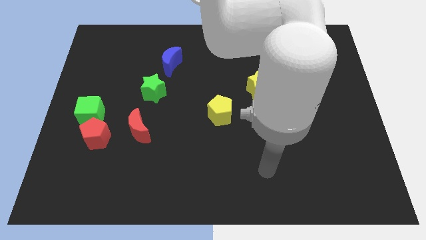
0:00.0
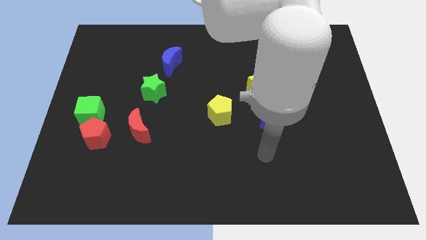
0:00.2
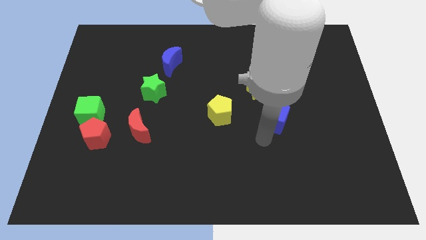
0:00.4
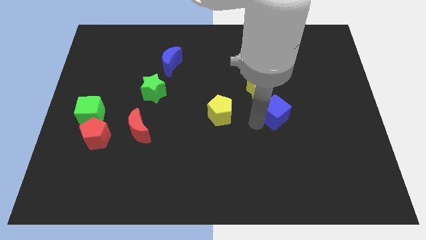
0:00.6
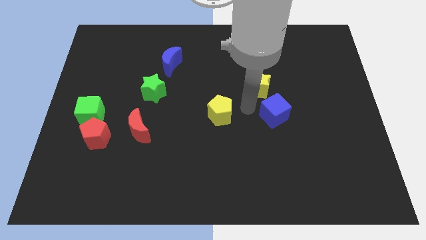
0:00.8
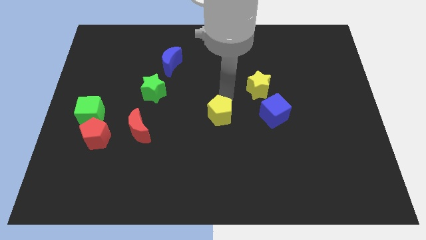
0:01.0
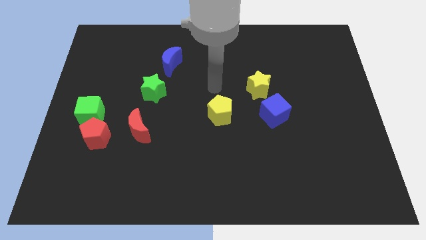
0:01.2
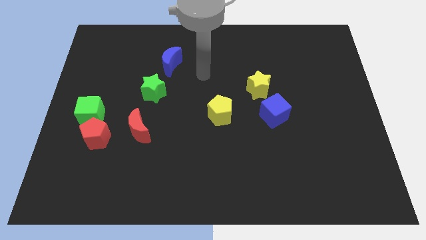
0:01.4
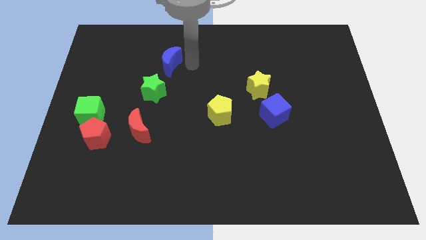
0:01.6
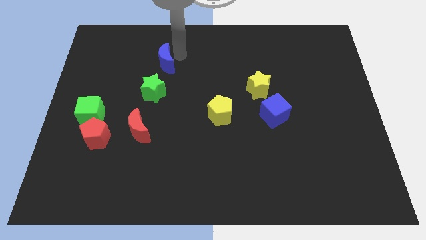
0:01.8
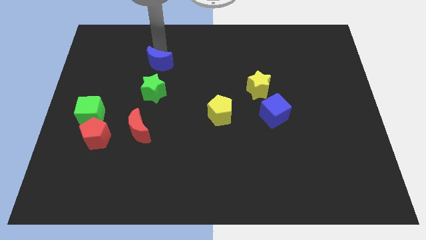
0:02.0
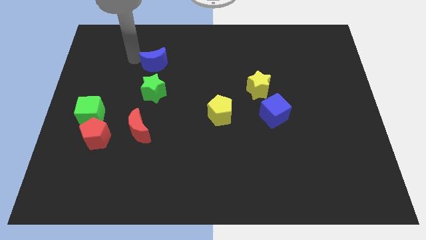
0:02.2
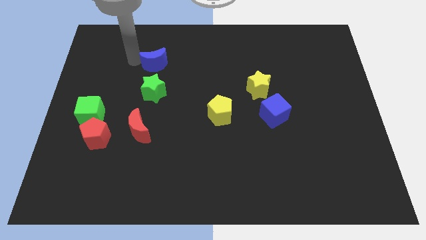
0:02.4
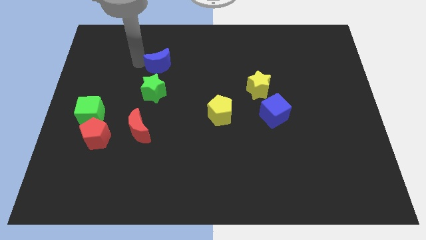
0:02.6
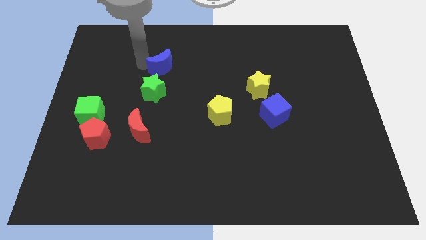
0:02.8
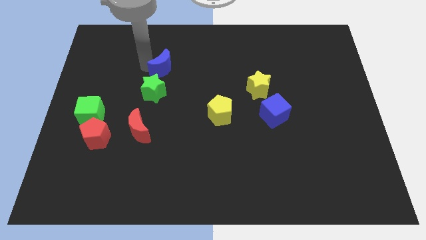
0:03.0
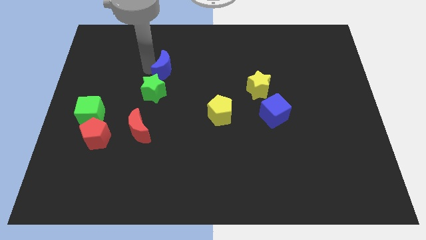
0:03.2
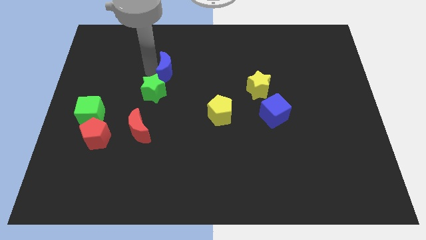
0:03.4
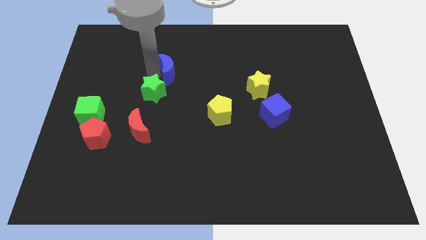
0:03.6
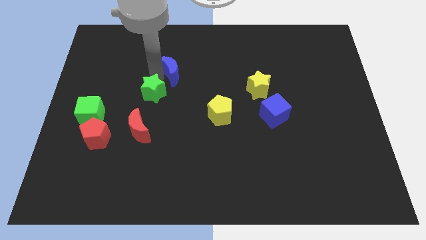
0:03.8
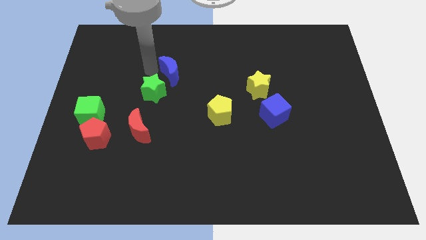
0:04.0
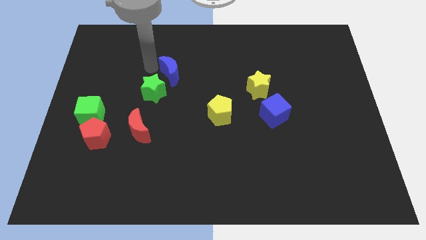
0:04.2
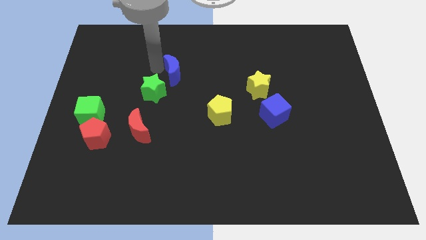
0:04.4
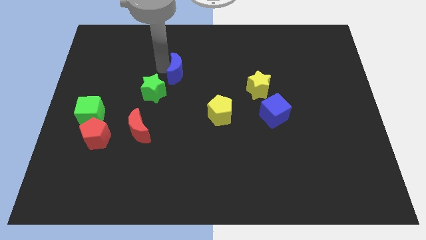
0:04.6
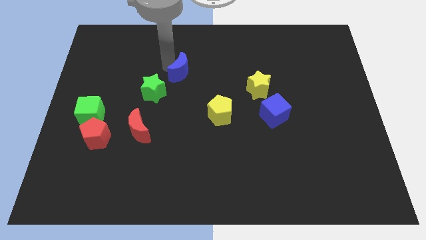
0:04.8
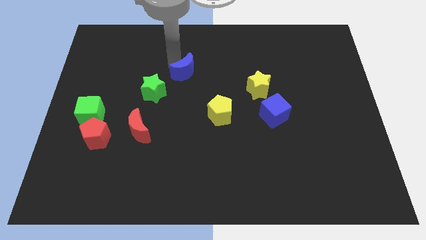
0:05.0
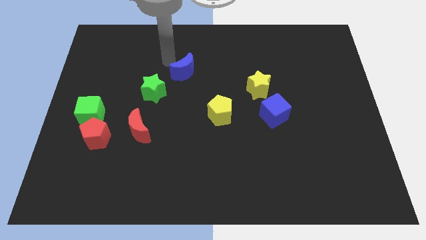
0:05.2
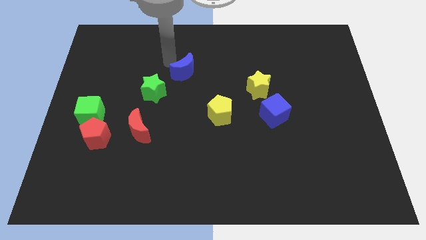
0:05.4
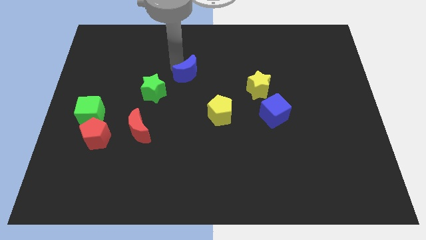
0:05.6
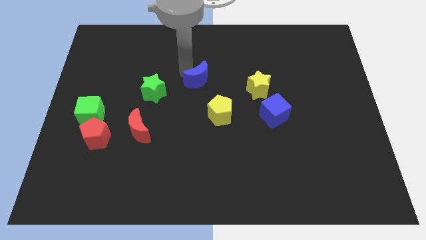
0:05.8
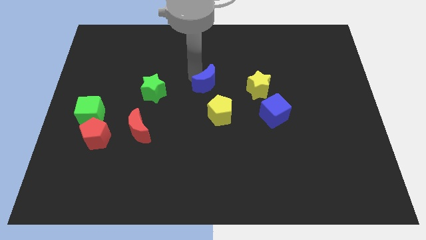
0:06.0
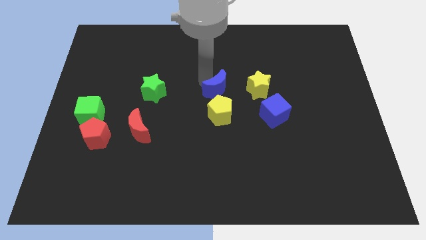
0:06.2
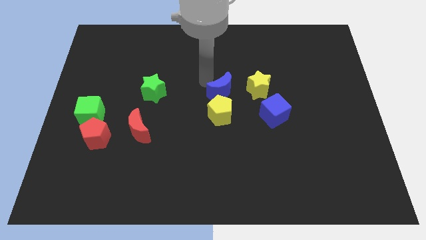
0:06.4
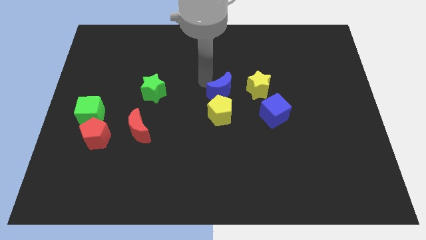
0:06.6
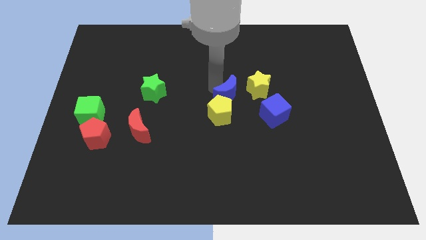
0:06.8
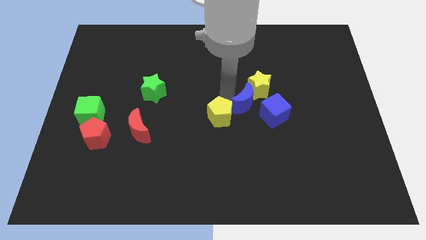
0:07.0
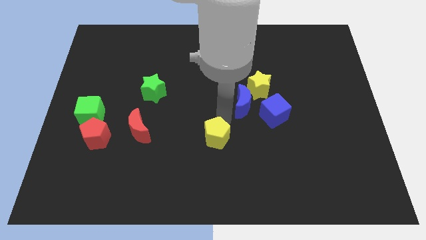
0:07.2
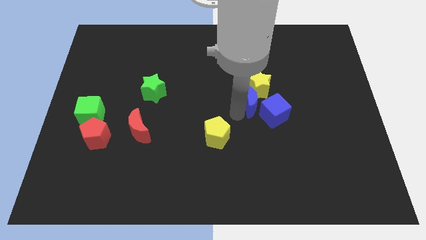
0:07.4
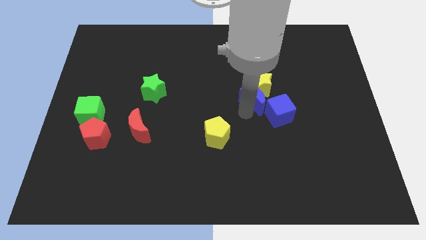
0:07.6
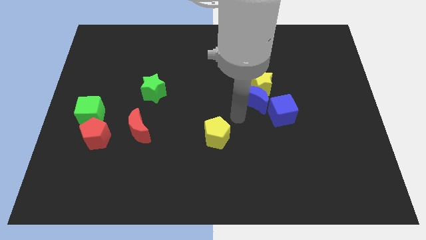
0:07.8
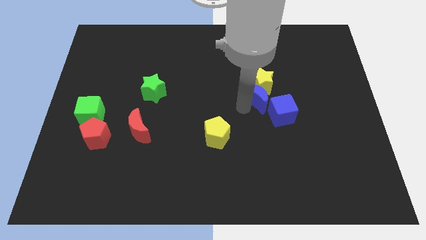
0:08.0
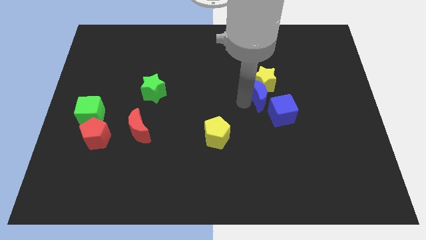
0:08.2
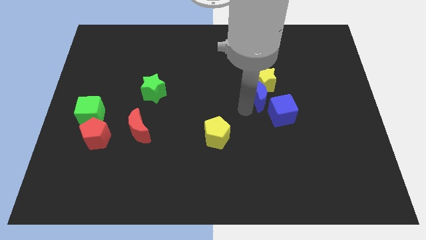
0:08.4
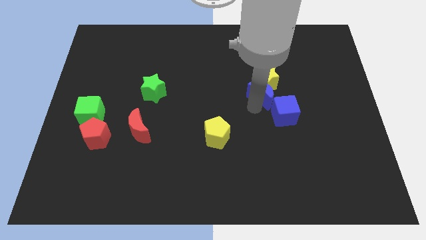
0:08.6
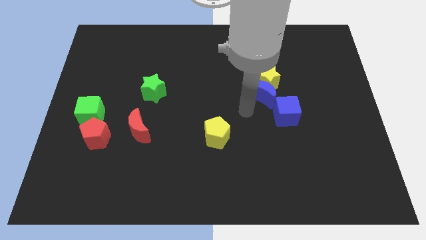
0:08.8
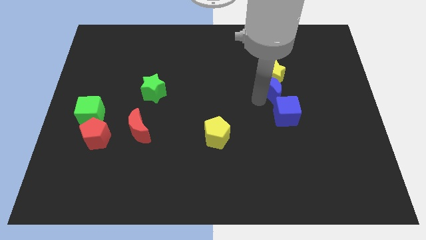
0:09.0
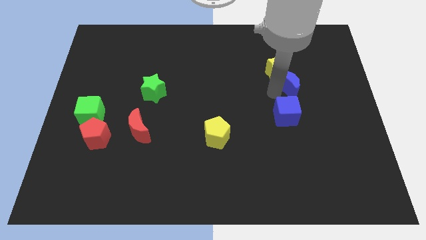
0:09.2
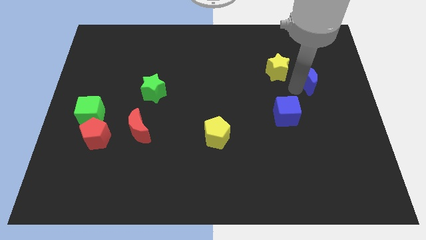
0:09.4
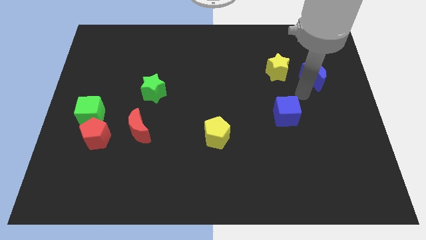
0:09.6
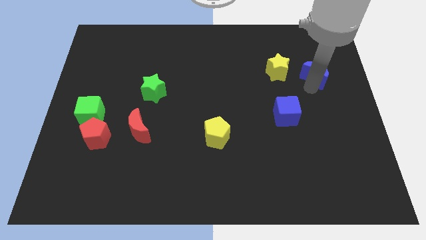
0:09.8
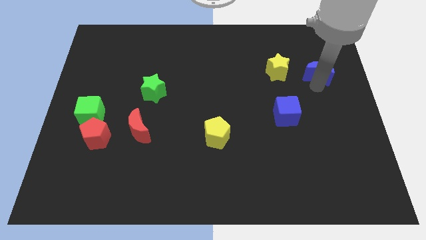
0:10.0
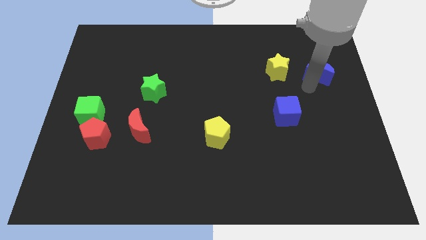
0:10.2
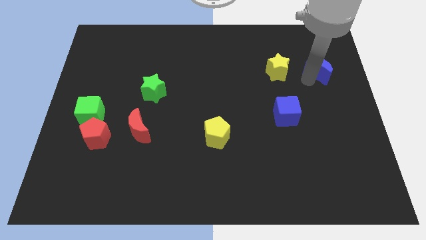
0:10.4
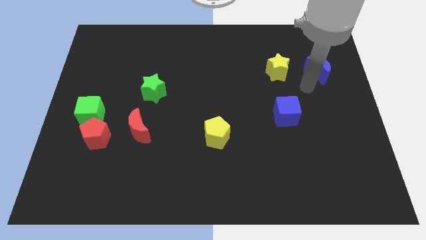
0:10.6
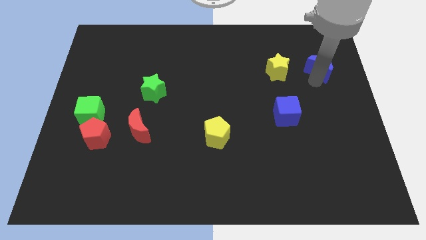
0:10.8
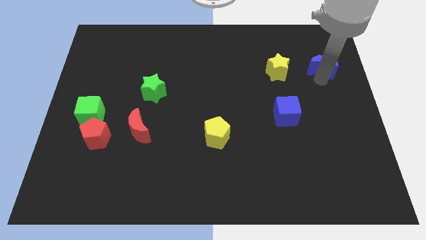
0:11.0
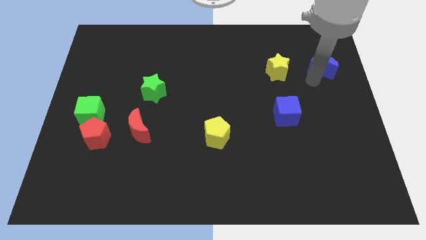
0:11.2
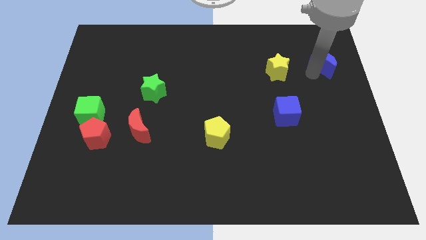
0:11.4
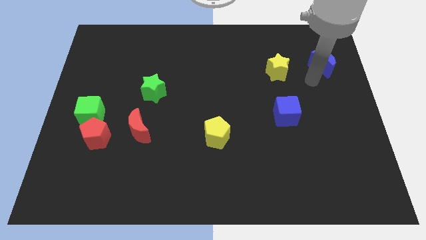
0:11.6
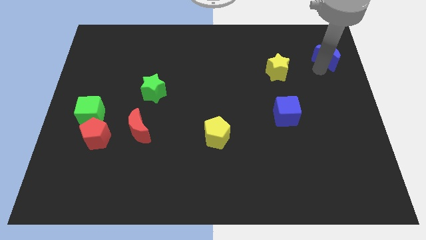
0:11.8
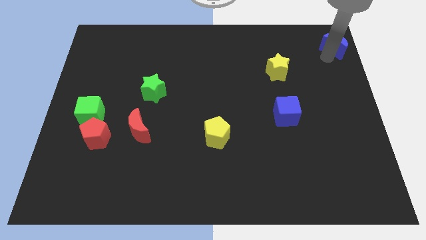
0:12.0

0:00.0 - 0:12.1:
push the blue moon to the top right

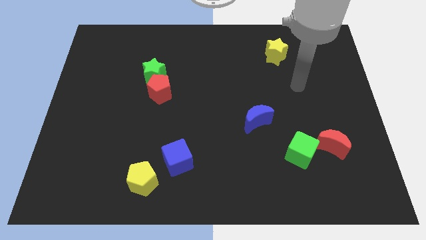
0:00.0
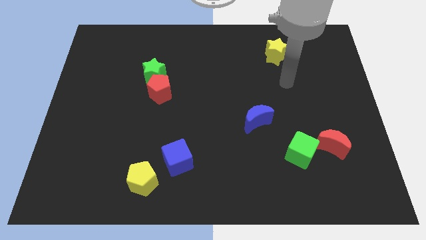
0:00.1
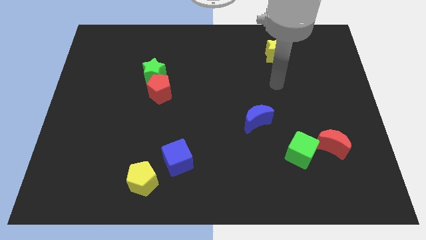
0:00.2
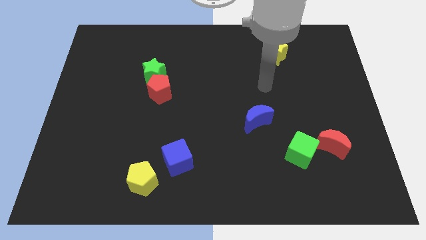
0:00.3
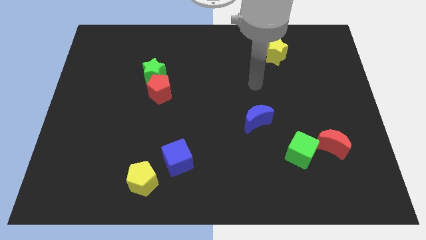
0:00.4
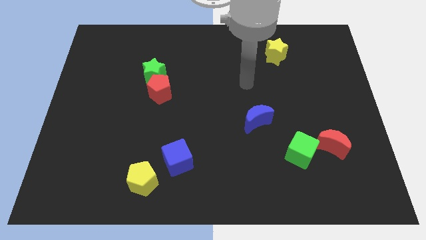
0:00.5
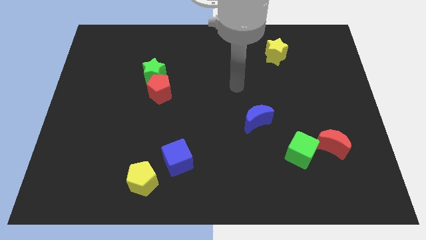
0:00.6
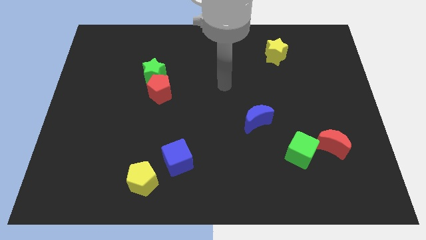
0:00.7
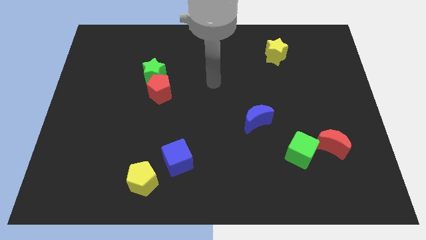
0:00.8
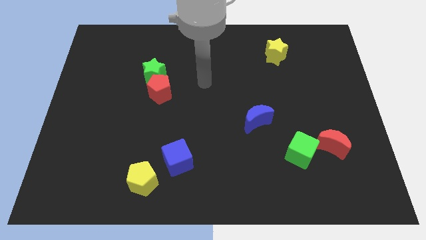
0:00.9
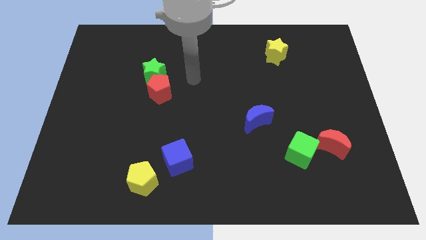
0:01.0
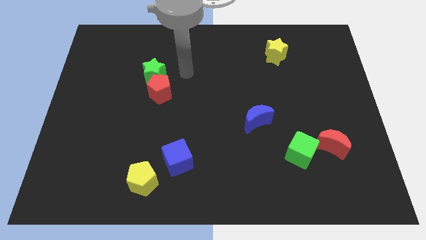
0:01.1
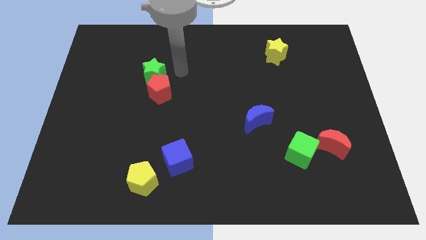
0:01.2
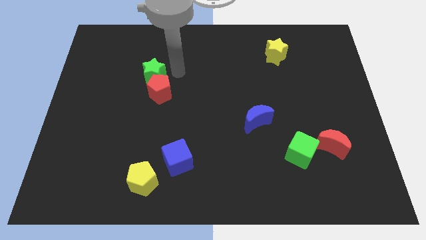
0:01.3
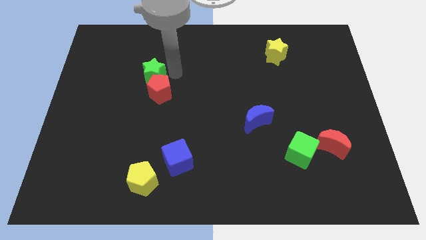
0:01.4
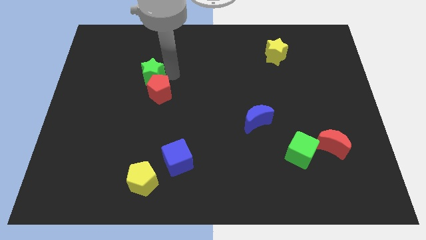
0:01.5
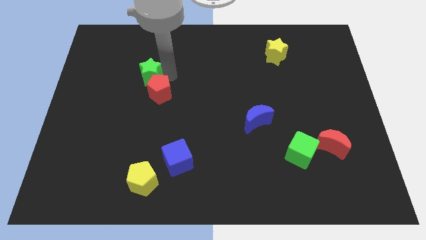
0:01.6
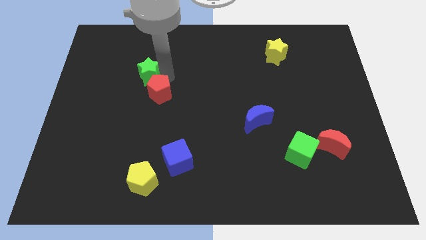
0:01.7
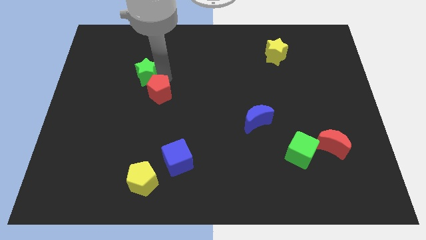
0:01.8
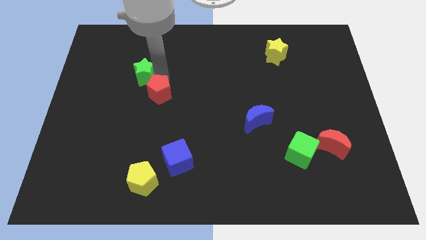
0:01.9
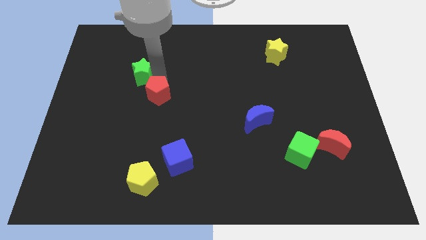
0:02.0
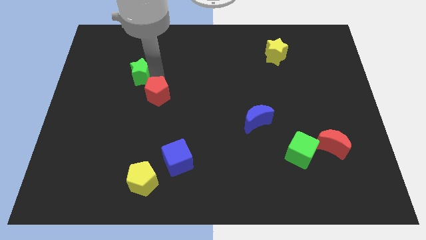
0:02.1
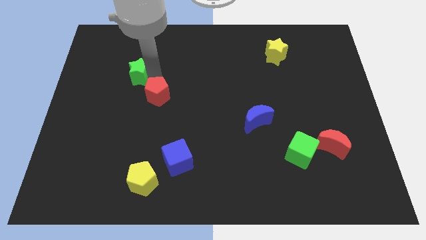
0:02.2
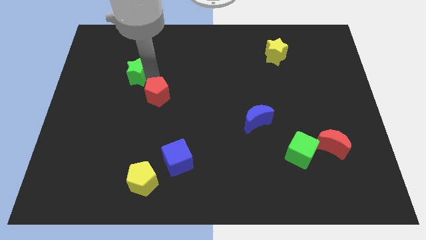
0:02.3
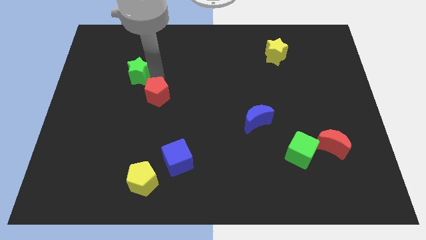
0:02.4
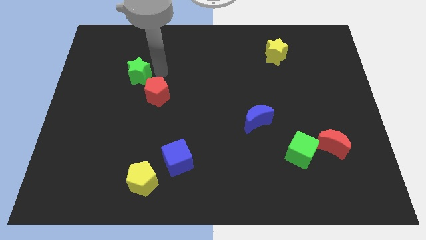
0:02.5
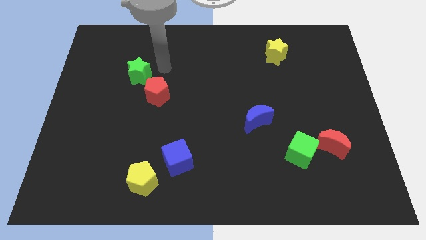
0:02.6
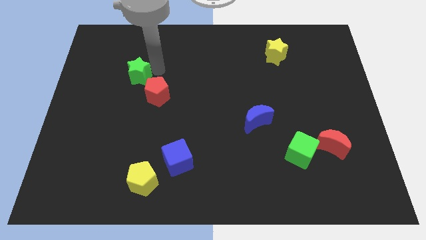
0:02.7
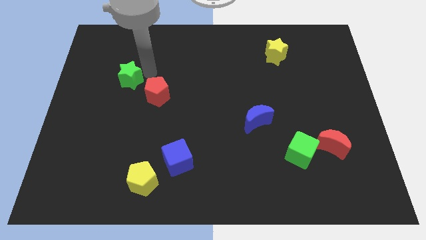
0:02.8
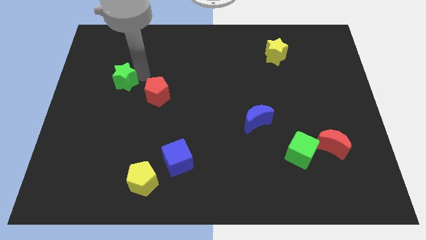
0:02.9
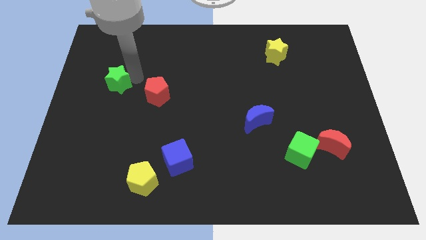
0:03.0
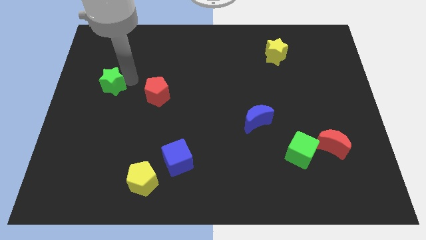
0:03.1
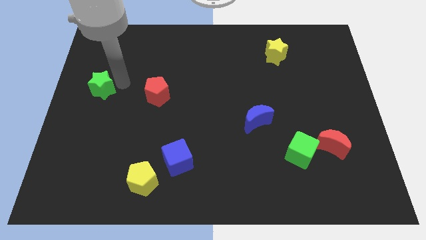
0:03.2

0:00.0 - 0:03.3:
put the green star to the left side of the board
